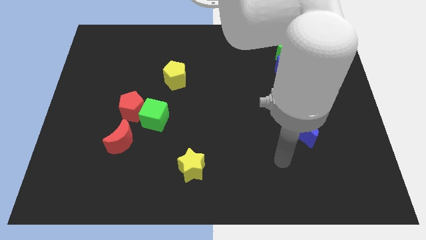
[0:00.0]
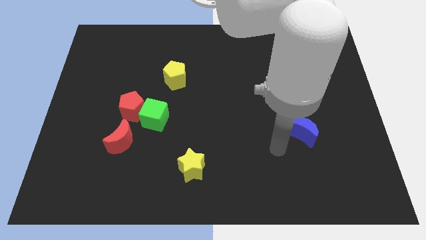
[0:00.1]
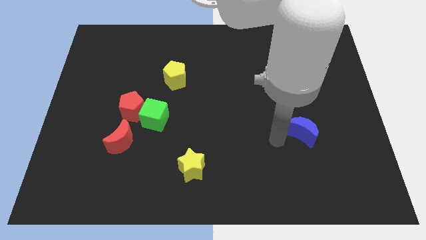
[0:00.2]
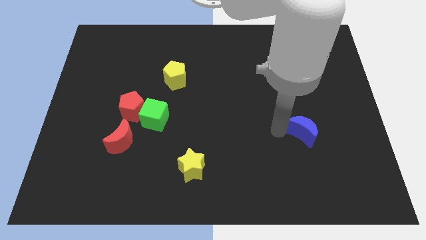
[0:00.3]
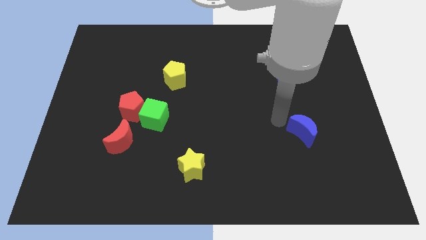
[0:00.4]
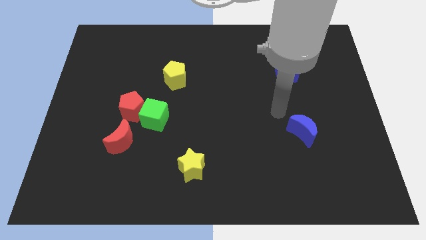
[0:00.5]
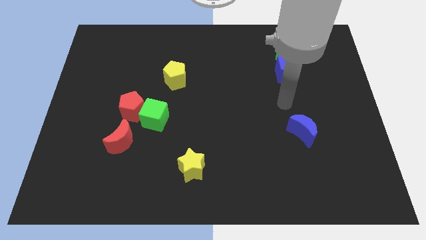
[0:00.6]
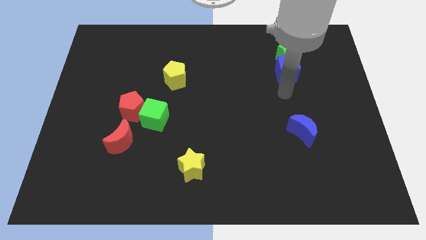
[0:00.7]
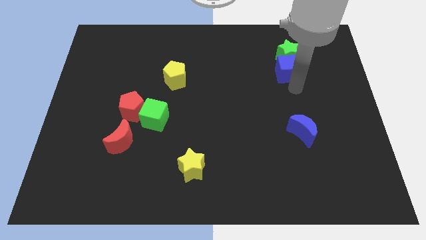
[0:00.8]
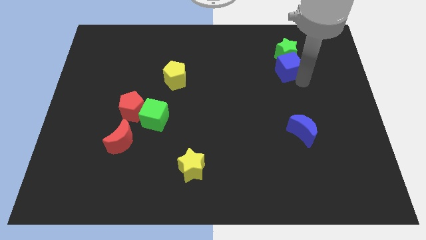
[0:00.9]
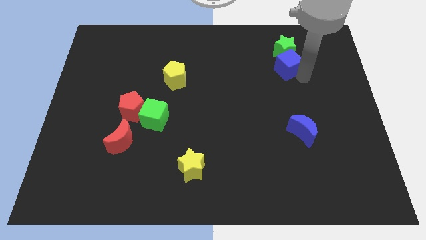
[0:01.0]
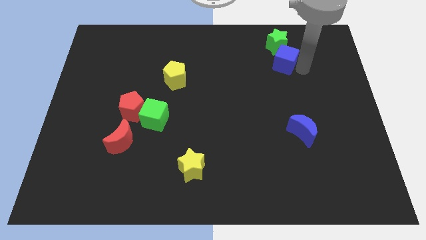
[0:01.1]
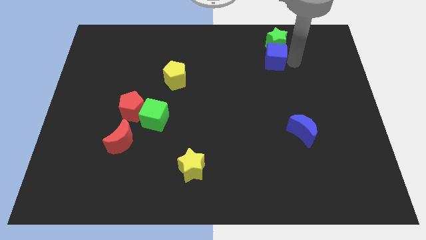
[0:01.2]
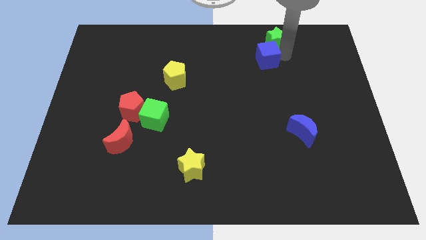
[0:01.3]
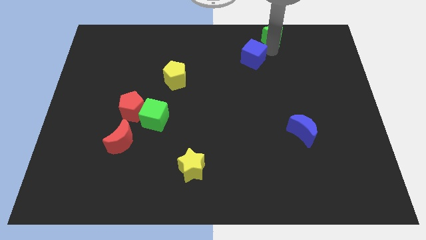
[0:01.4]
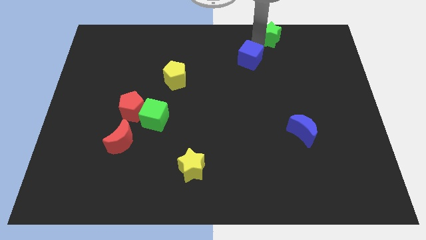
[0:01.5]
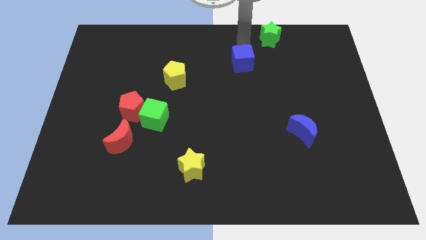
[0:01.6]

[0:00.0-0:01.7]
pull the blue cube apart from the green star

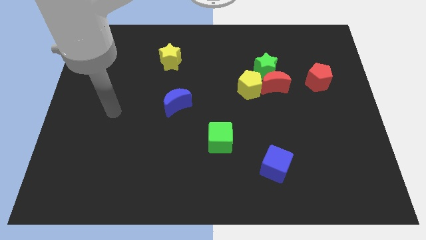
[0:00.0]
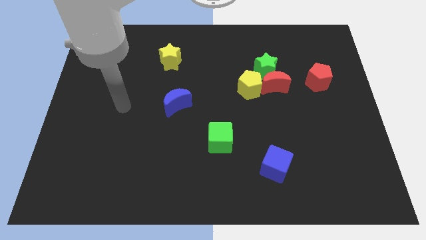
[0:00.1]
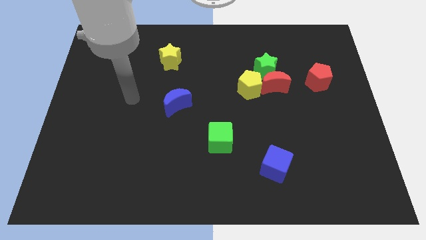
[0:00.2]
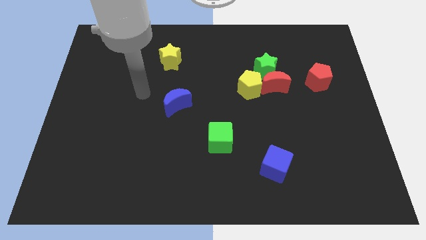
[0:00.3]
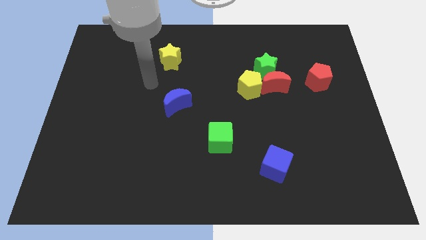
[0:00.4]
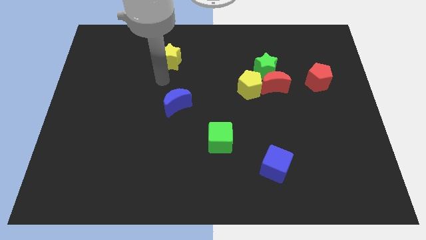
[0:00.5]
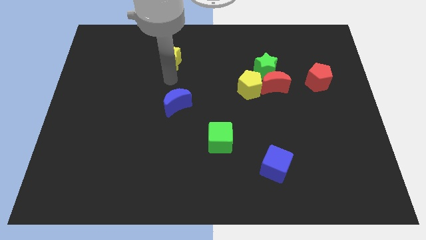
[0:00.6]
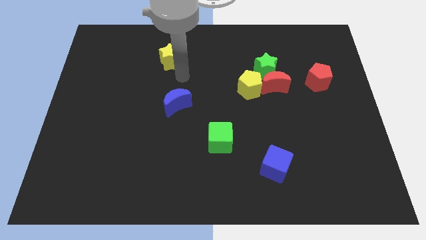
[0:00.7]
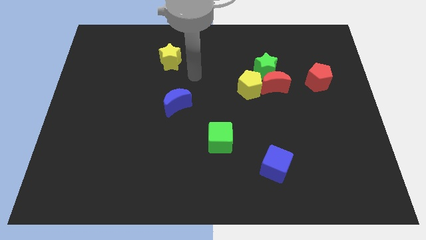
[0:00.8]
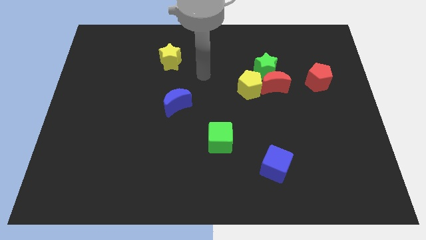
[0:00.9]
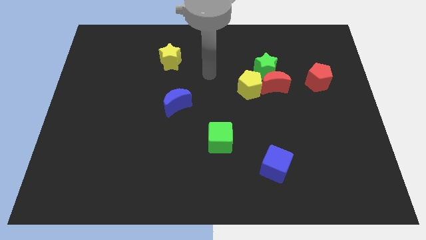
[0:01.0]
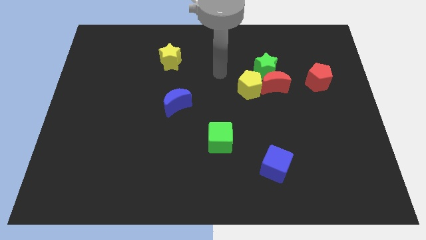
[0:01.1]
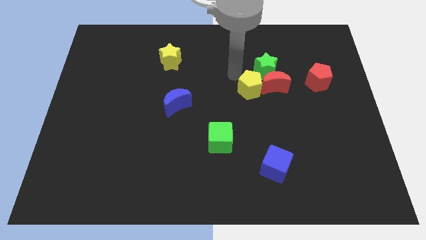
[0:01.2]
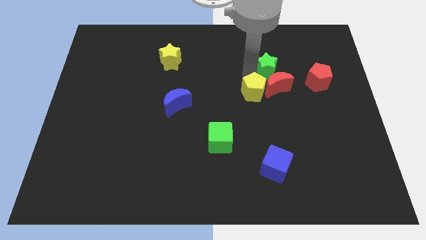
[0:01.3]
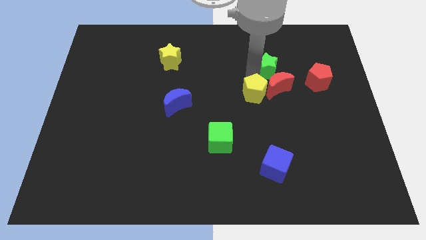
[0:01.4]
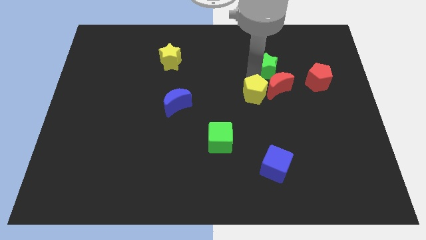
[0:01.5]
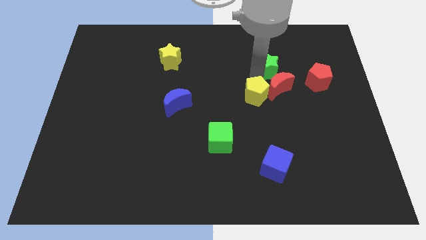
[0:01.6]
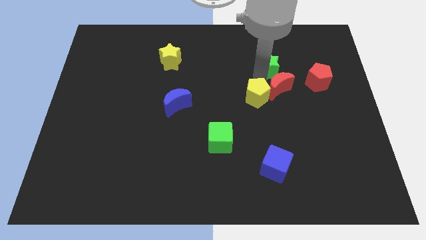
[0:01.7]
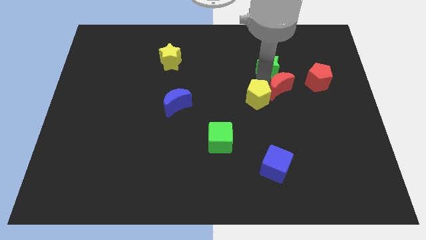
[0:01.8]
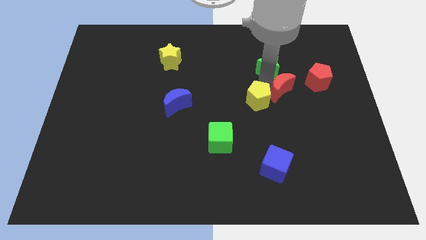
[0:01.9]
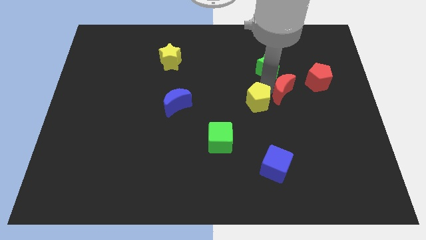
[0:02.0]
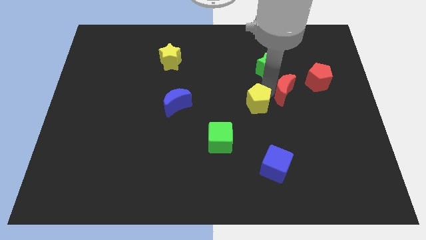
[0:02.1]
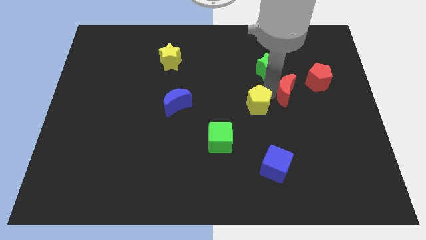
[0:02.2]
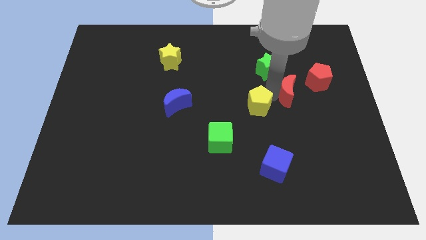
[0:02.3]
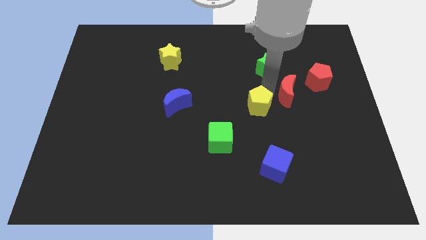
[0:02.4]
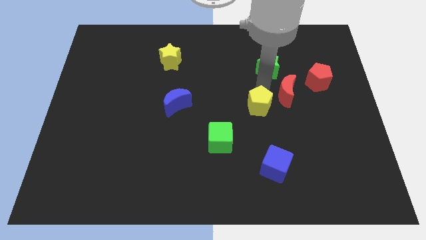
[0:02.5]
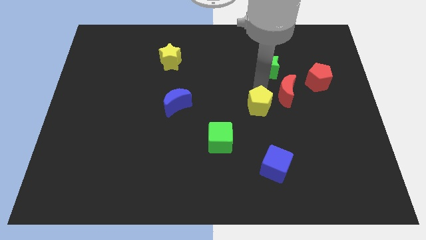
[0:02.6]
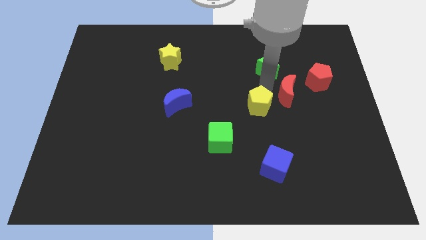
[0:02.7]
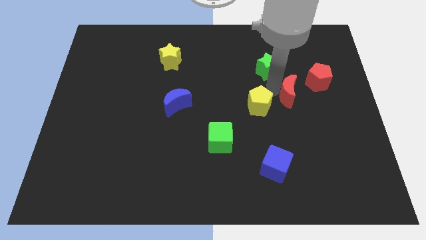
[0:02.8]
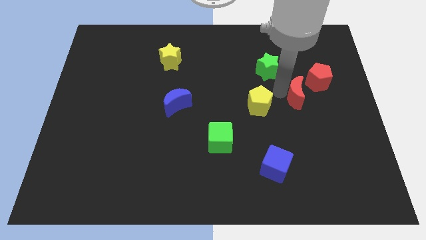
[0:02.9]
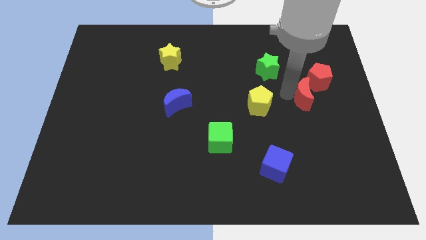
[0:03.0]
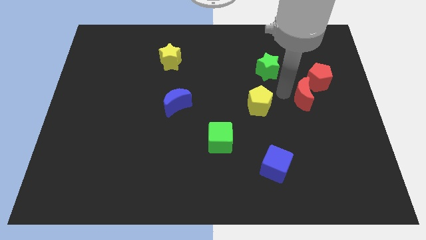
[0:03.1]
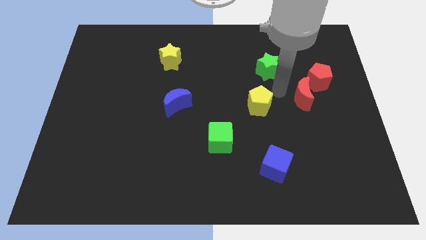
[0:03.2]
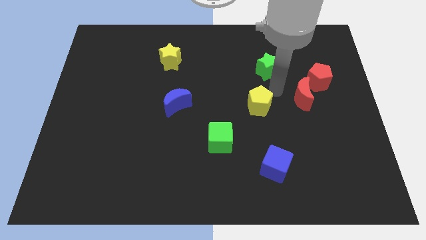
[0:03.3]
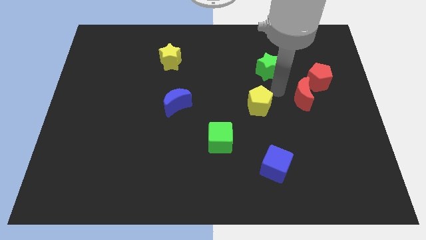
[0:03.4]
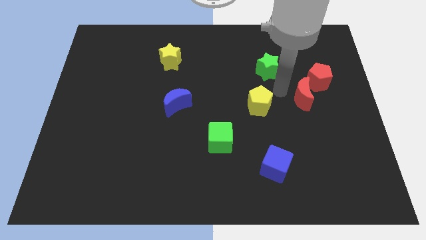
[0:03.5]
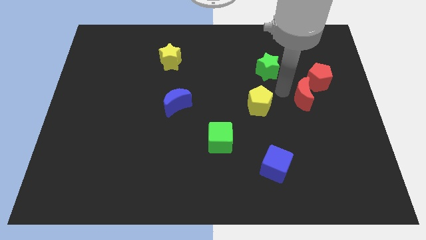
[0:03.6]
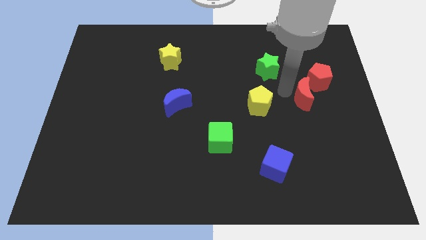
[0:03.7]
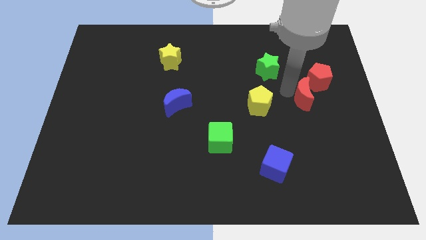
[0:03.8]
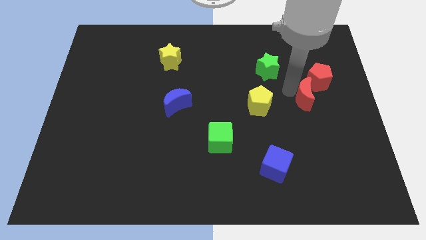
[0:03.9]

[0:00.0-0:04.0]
move the red moon away from the green star and yellow pentagon

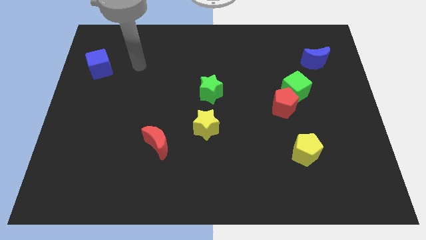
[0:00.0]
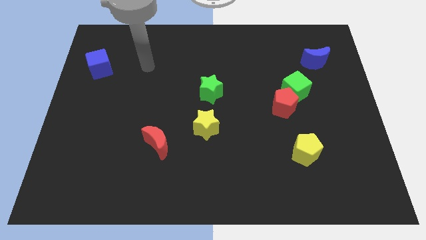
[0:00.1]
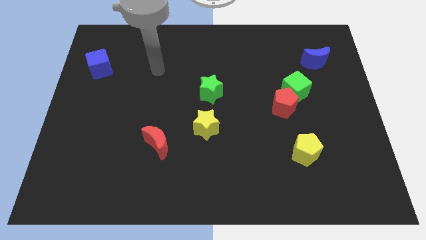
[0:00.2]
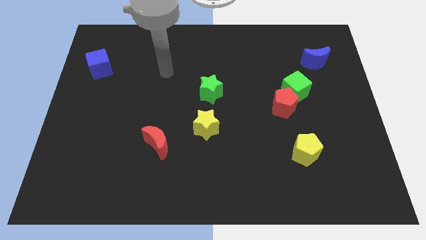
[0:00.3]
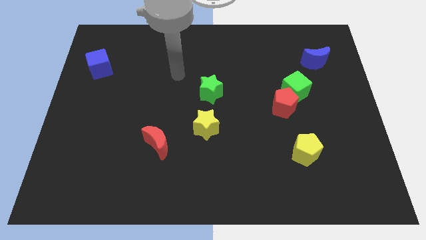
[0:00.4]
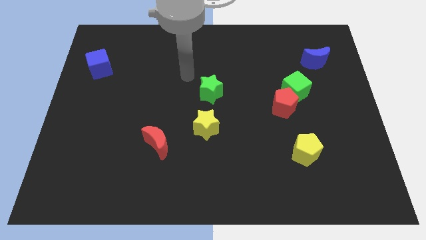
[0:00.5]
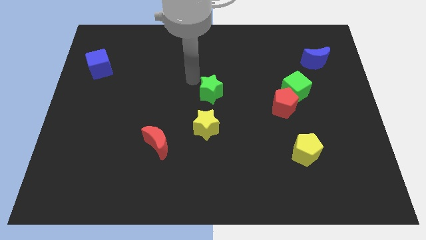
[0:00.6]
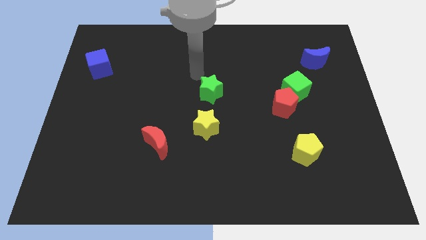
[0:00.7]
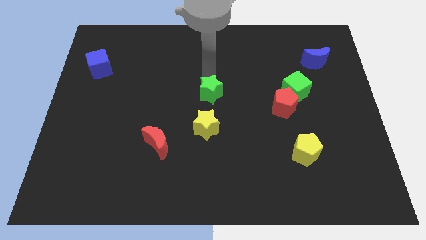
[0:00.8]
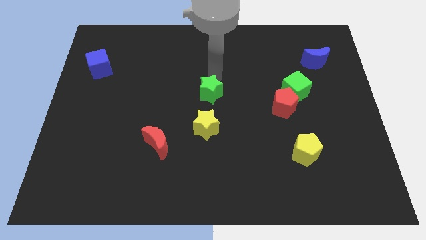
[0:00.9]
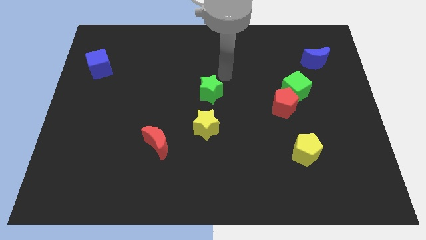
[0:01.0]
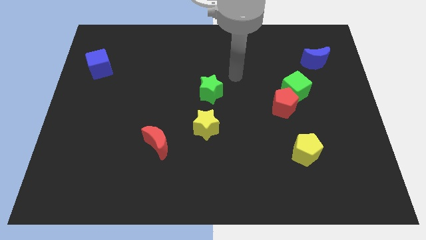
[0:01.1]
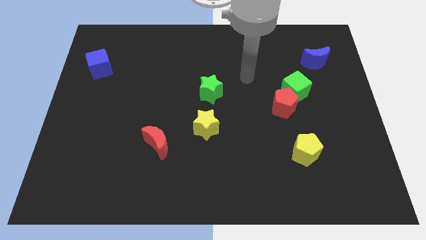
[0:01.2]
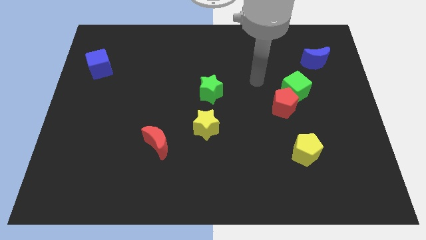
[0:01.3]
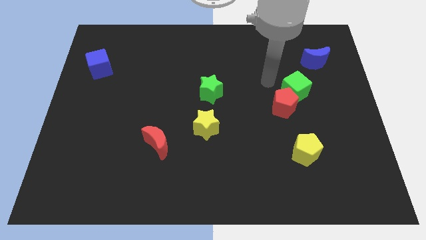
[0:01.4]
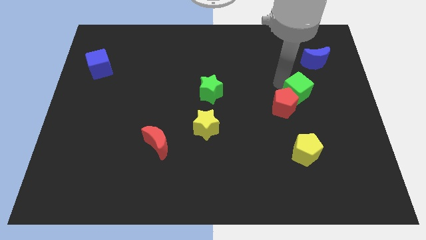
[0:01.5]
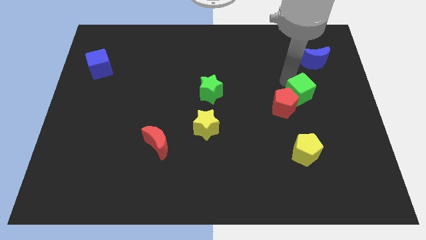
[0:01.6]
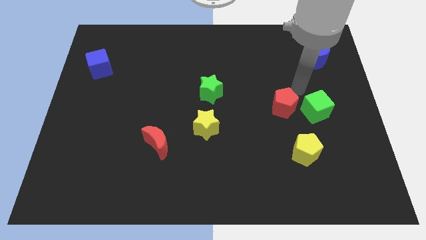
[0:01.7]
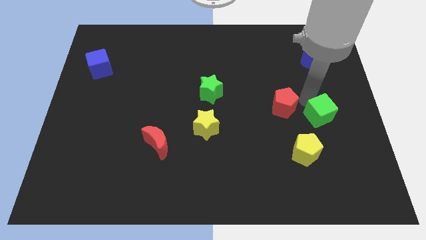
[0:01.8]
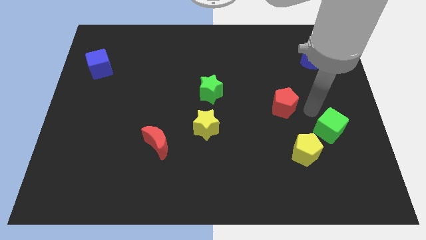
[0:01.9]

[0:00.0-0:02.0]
pull the red pentagon apart from the green cube

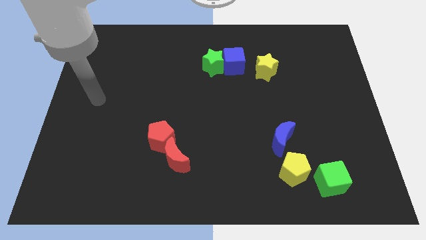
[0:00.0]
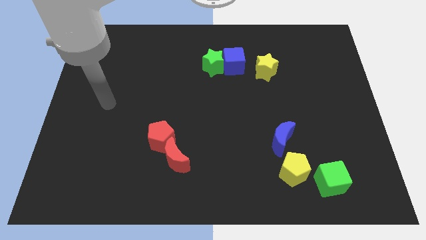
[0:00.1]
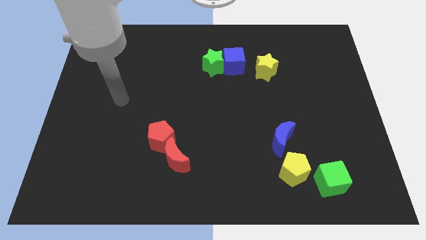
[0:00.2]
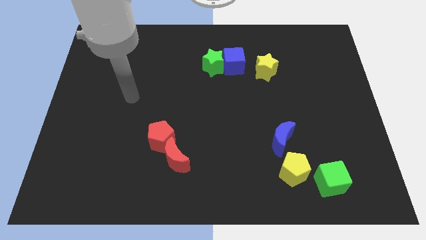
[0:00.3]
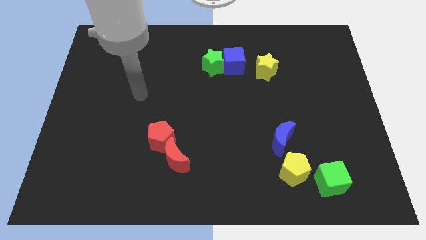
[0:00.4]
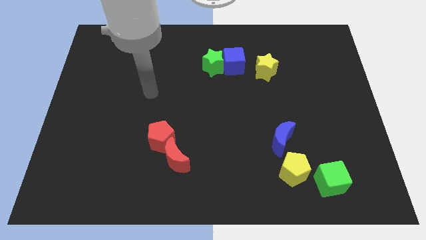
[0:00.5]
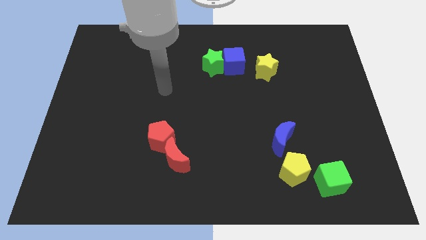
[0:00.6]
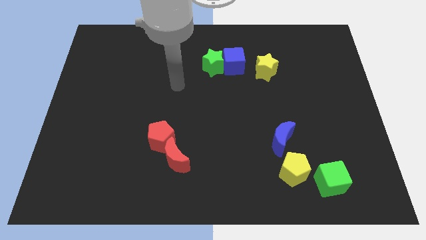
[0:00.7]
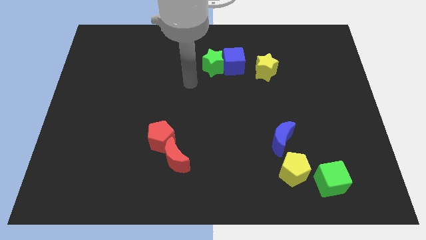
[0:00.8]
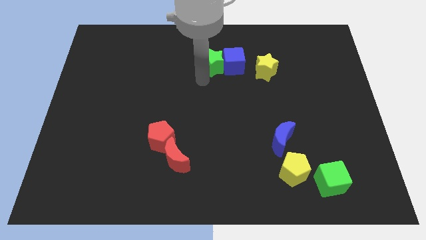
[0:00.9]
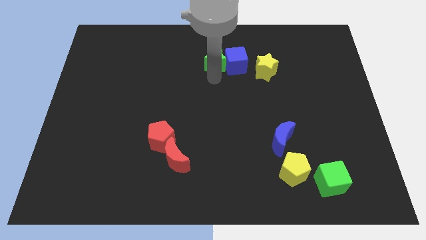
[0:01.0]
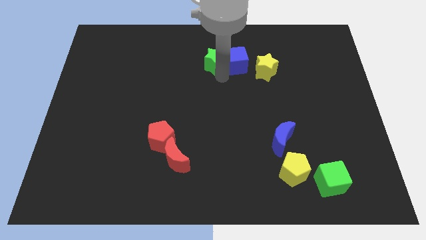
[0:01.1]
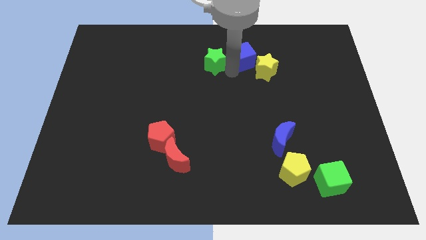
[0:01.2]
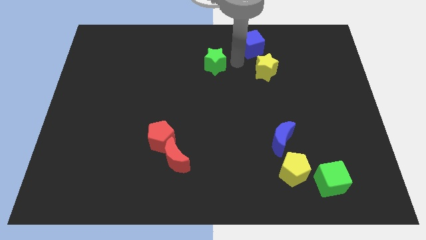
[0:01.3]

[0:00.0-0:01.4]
move the green star away from the blue cube

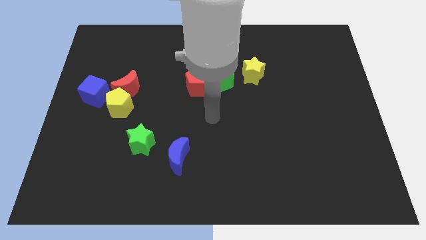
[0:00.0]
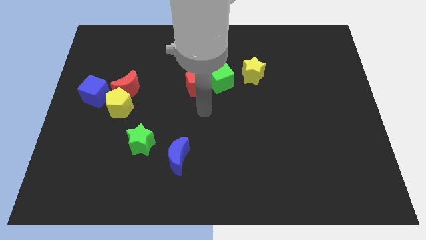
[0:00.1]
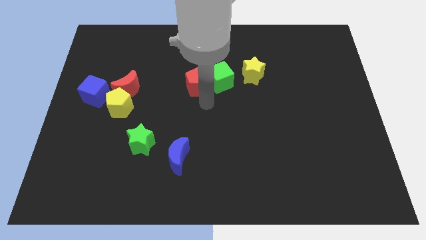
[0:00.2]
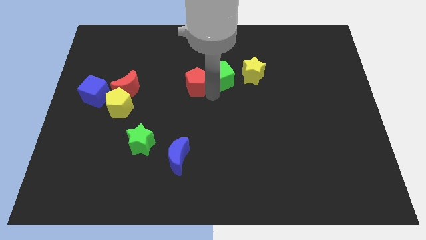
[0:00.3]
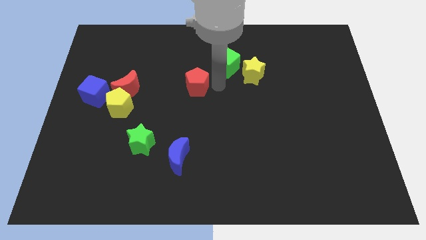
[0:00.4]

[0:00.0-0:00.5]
separate the red pentagon from the green cube
